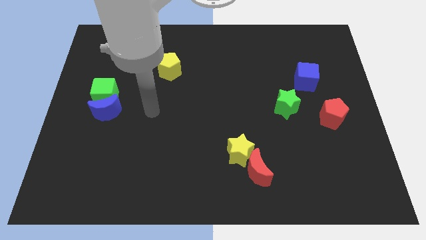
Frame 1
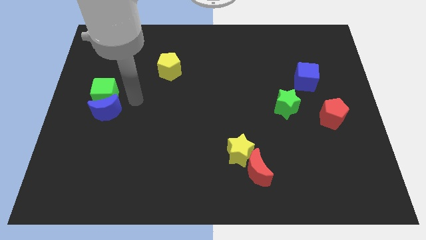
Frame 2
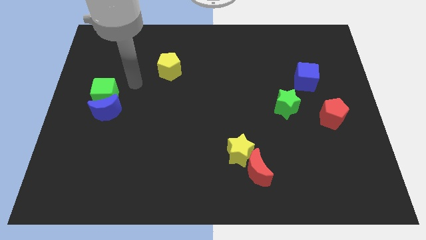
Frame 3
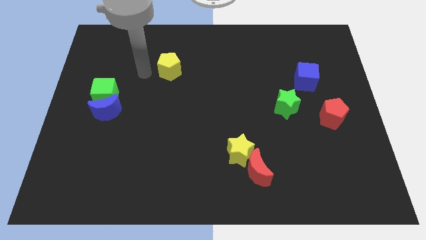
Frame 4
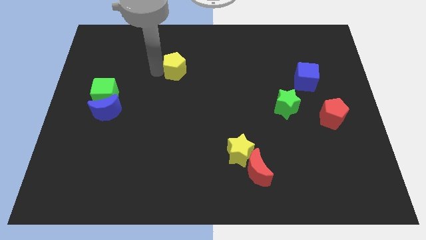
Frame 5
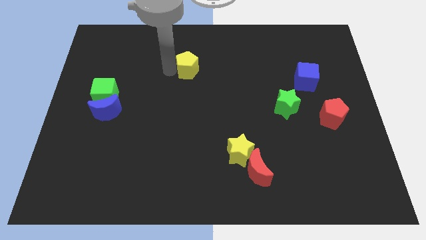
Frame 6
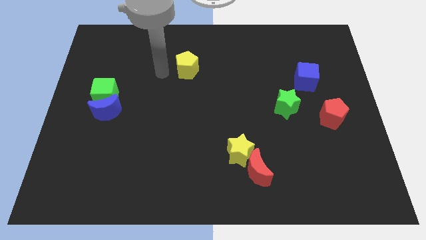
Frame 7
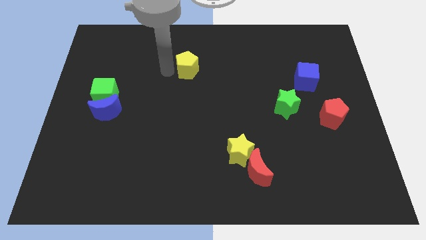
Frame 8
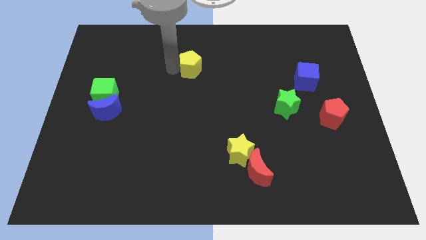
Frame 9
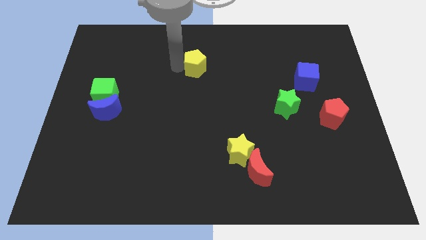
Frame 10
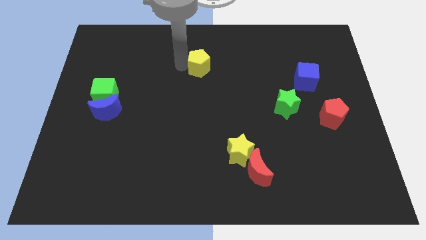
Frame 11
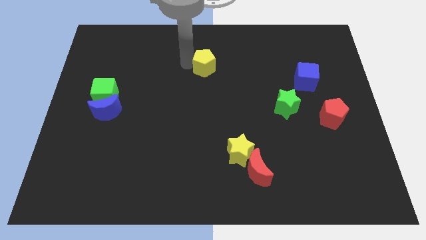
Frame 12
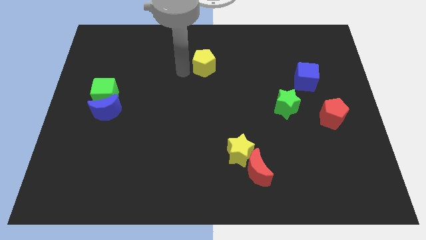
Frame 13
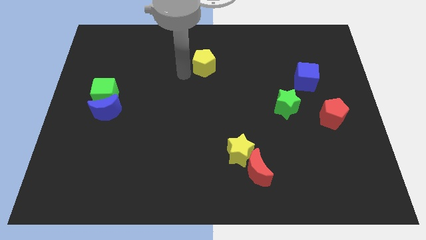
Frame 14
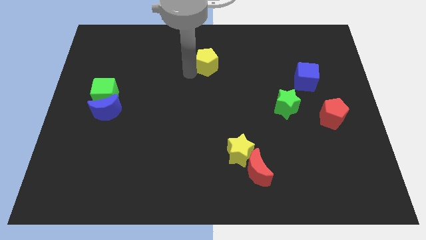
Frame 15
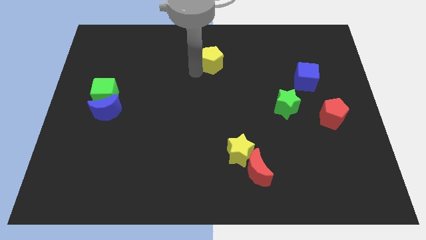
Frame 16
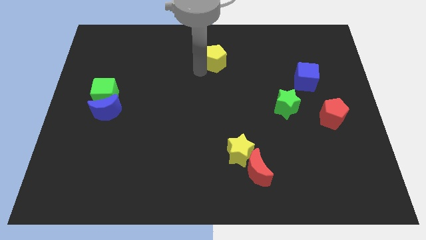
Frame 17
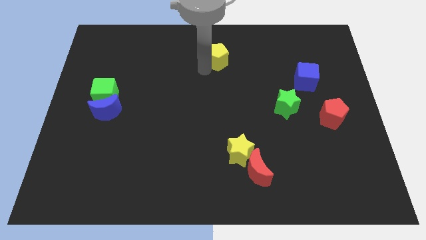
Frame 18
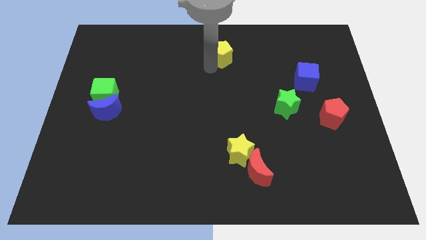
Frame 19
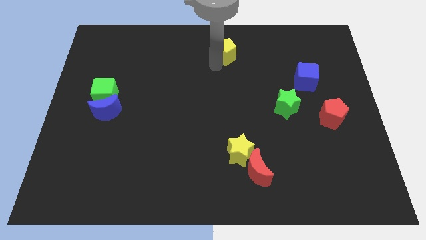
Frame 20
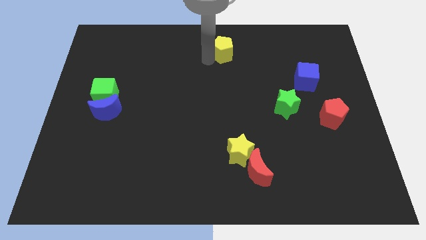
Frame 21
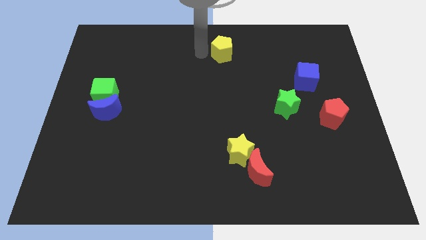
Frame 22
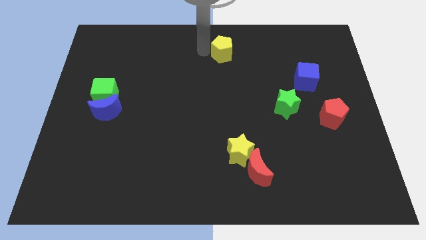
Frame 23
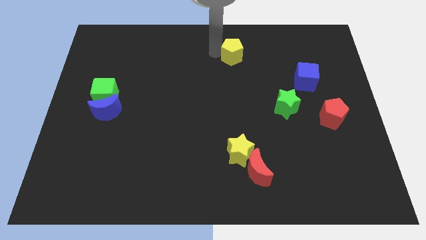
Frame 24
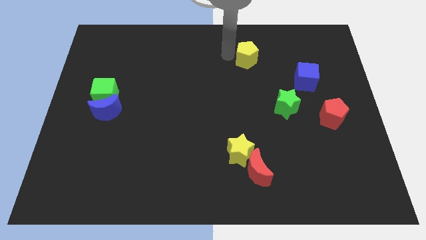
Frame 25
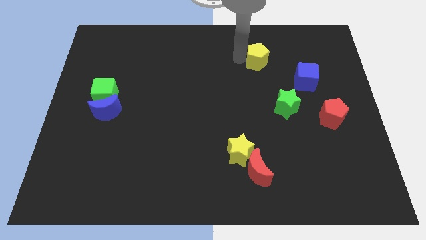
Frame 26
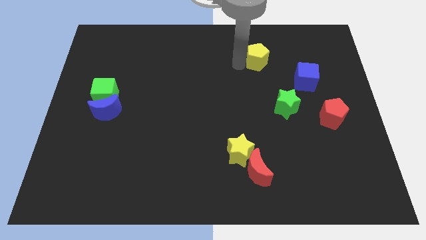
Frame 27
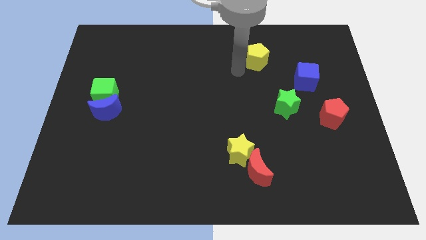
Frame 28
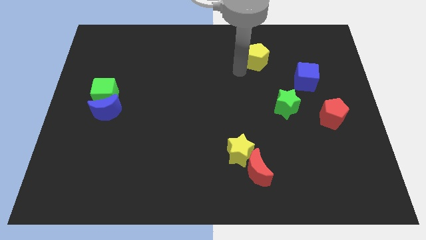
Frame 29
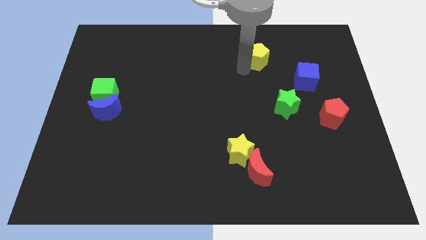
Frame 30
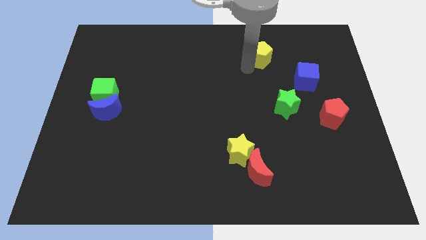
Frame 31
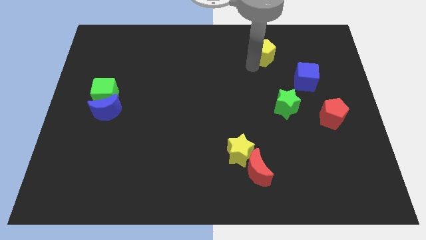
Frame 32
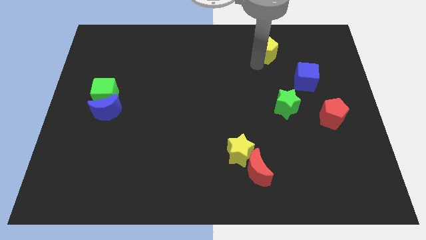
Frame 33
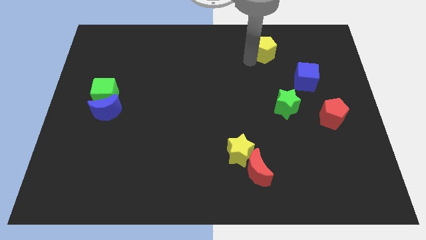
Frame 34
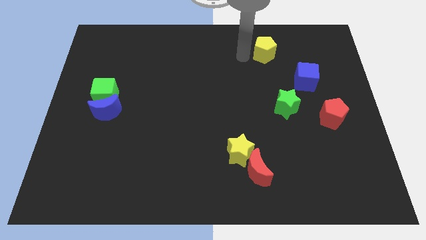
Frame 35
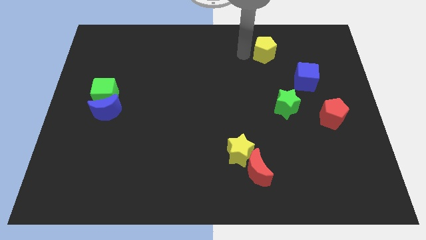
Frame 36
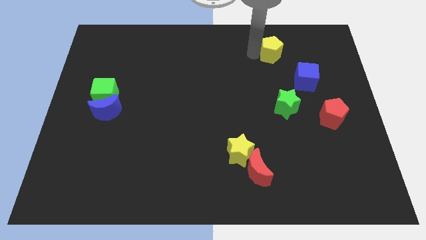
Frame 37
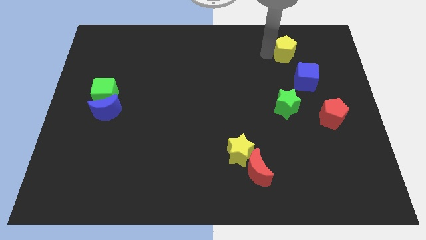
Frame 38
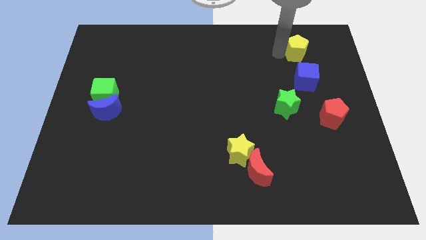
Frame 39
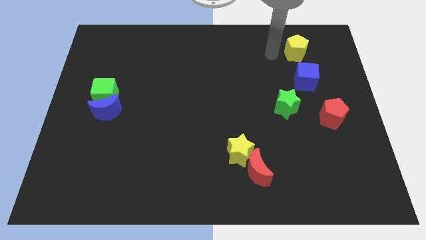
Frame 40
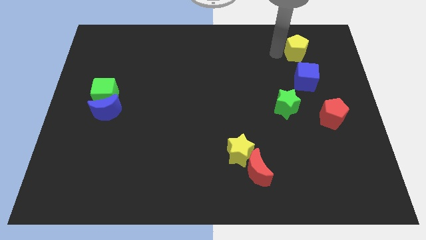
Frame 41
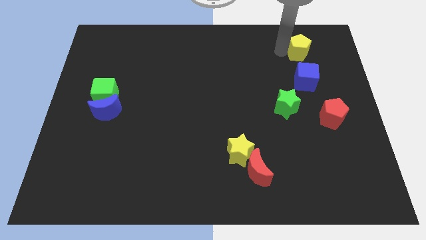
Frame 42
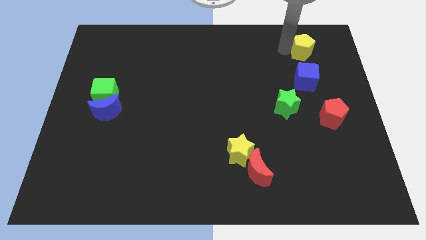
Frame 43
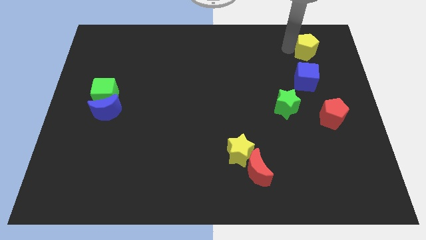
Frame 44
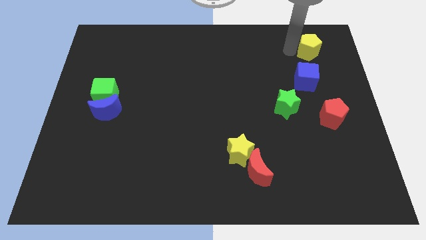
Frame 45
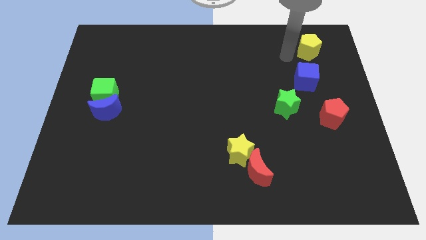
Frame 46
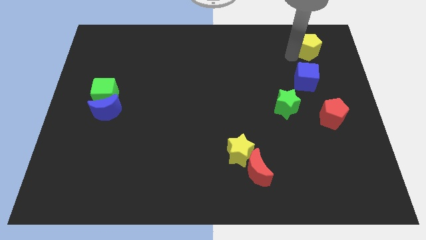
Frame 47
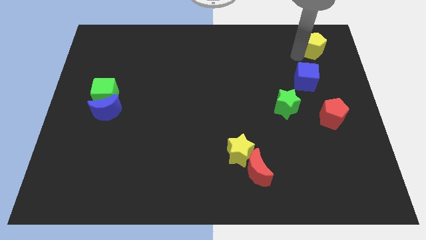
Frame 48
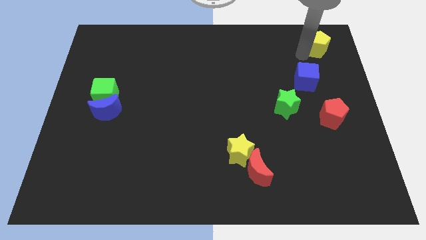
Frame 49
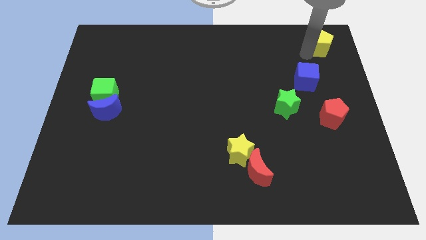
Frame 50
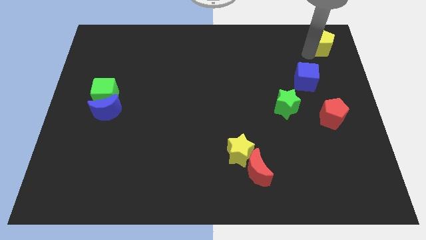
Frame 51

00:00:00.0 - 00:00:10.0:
push the yellow pentagon to the top right

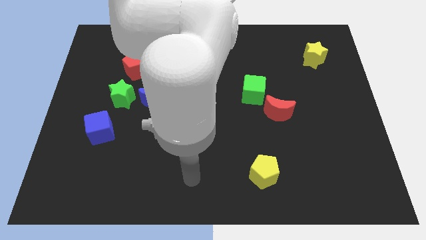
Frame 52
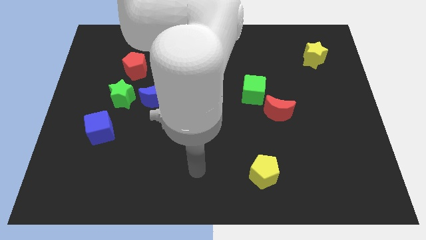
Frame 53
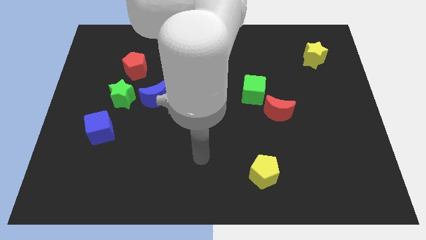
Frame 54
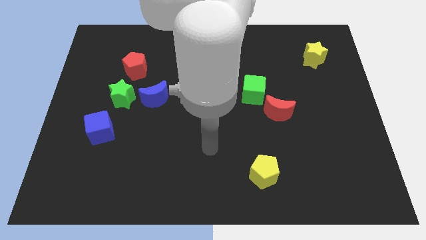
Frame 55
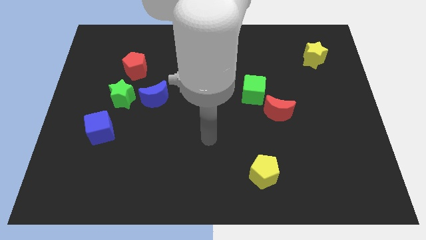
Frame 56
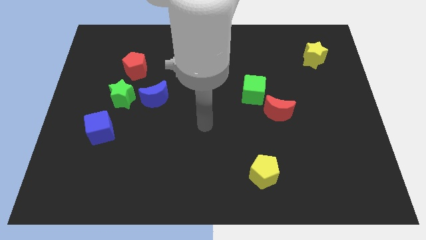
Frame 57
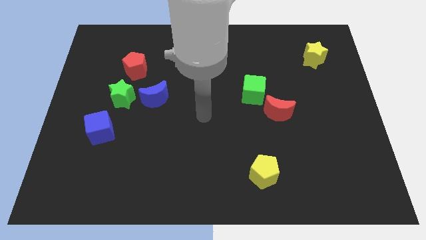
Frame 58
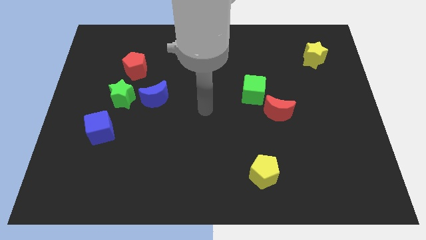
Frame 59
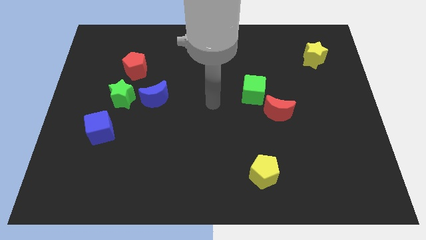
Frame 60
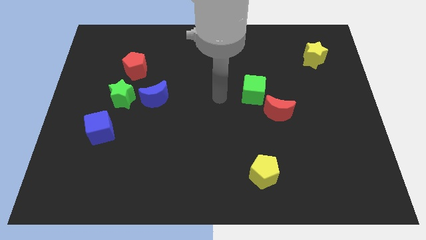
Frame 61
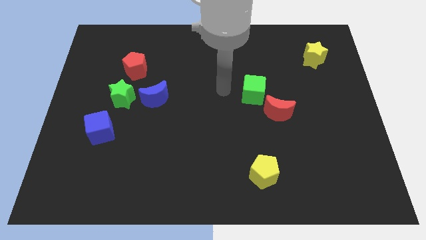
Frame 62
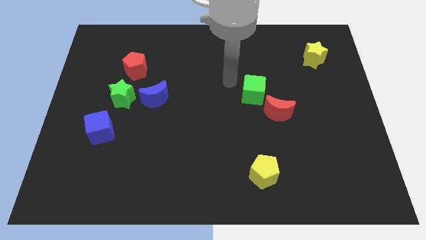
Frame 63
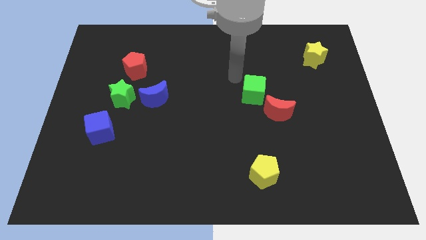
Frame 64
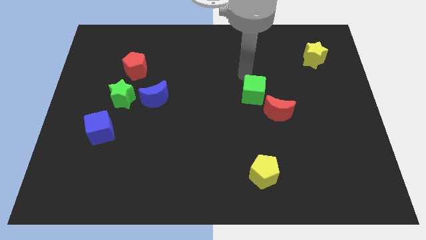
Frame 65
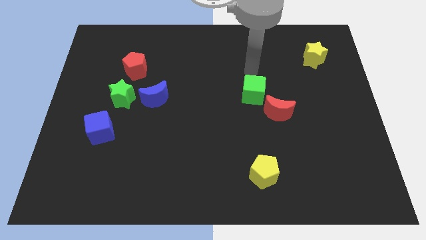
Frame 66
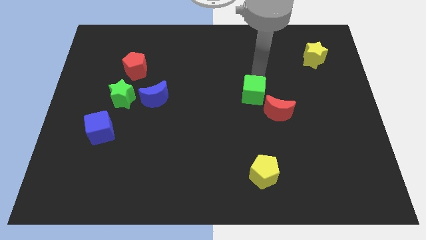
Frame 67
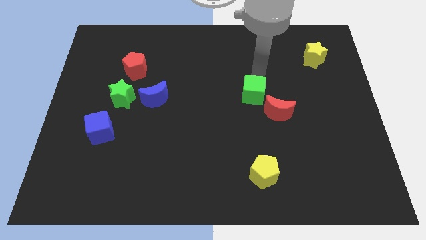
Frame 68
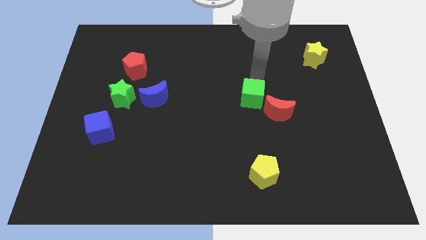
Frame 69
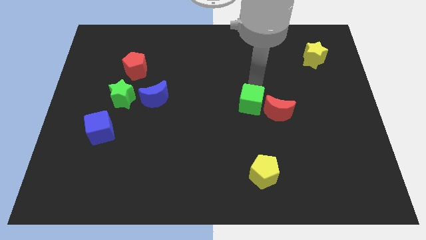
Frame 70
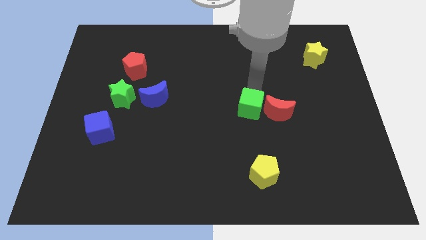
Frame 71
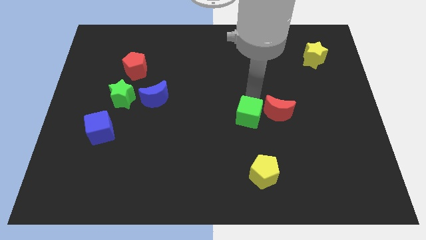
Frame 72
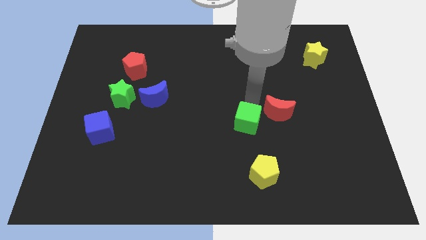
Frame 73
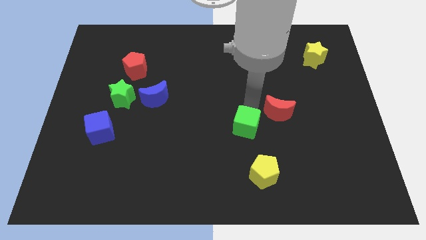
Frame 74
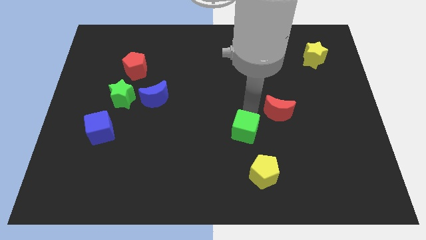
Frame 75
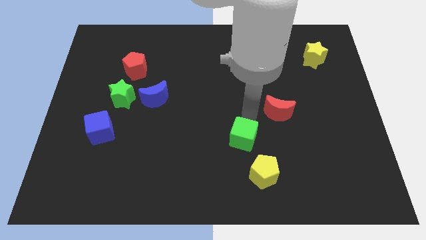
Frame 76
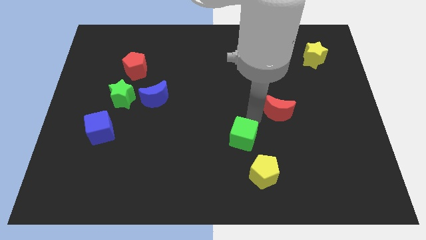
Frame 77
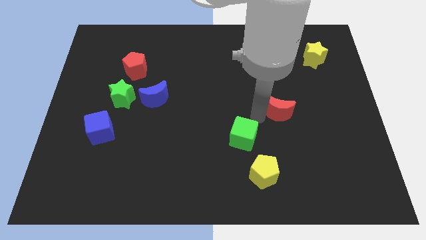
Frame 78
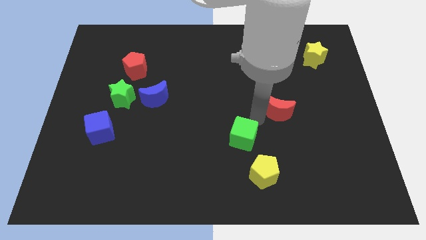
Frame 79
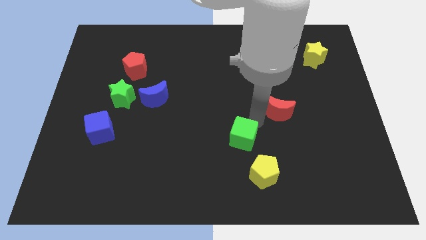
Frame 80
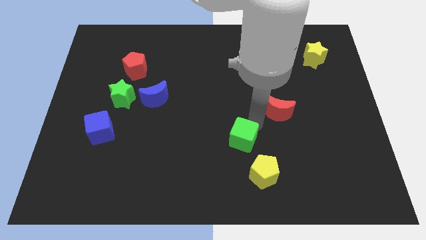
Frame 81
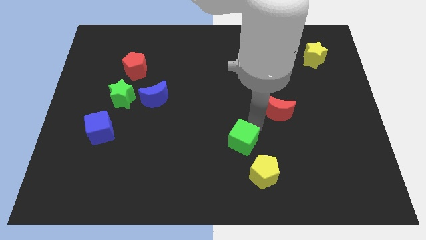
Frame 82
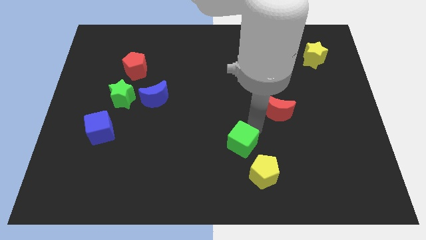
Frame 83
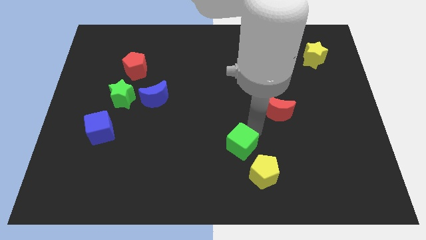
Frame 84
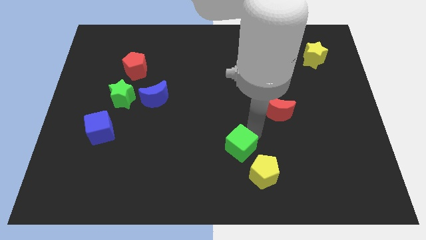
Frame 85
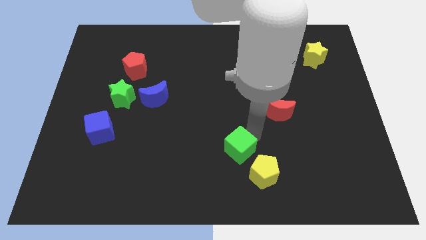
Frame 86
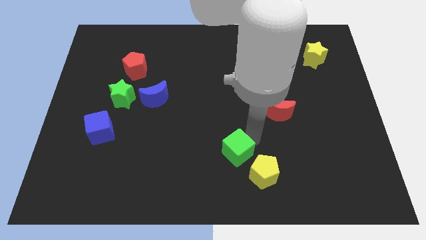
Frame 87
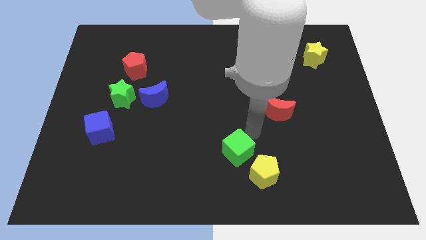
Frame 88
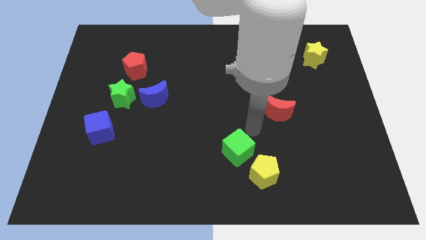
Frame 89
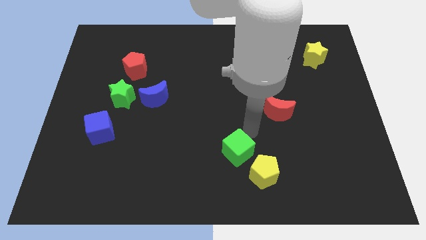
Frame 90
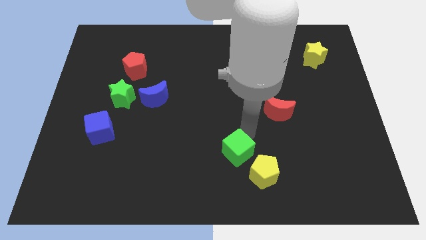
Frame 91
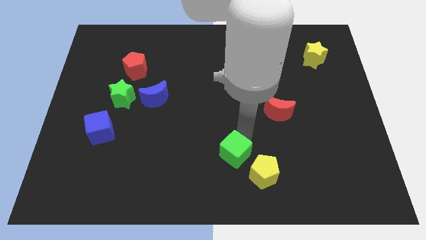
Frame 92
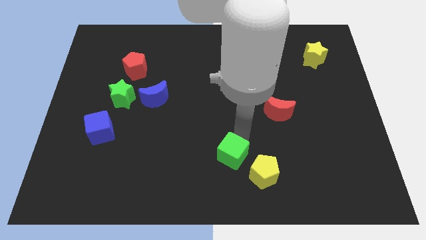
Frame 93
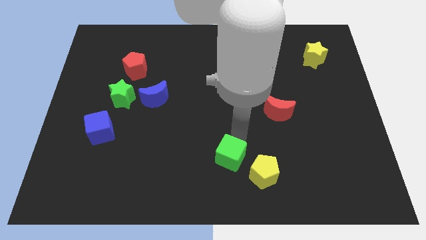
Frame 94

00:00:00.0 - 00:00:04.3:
push the green cube to the bottom side
